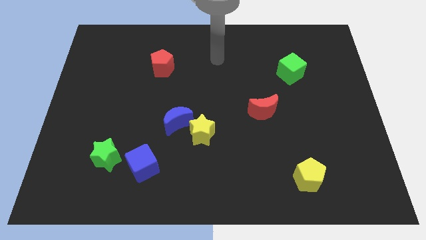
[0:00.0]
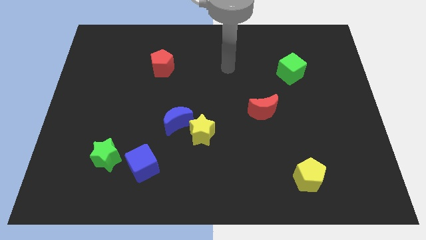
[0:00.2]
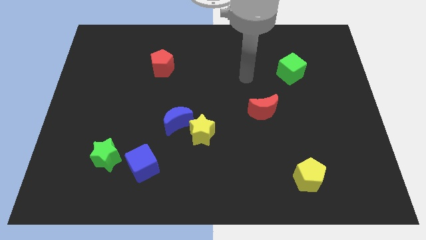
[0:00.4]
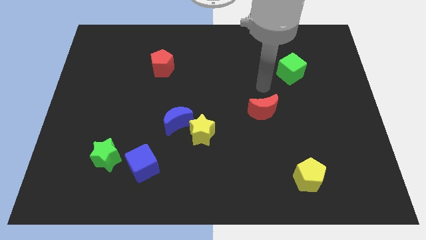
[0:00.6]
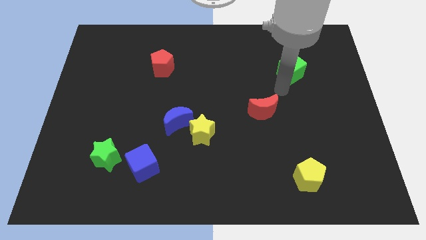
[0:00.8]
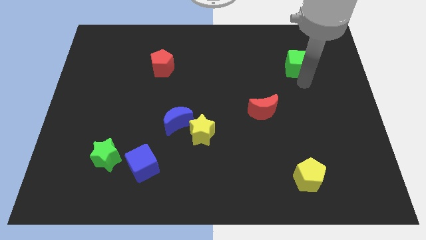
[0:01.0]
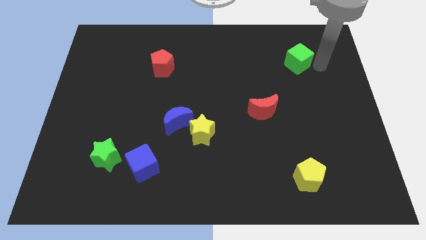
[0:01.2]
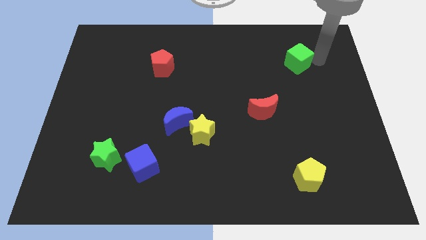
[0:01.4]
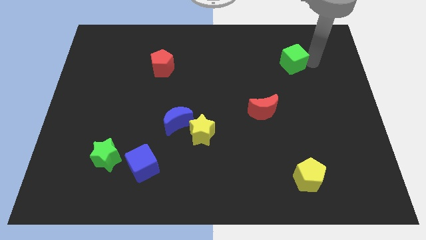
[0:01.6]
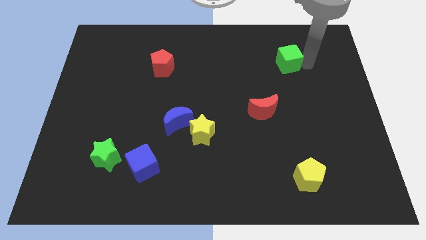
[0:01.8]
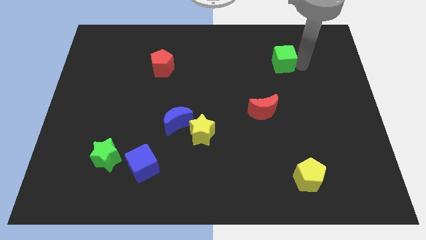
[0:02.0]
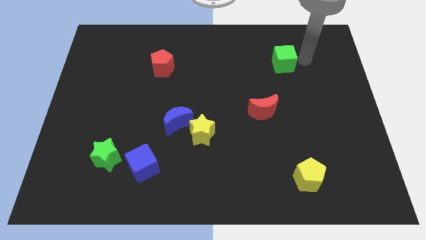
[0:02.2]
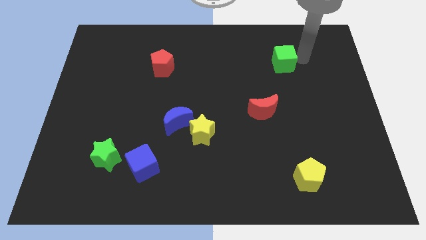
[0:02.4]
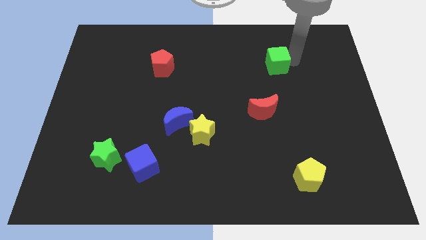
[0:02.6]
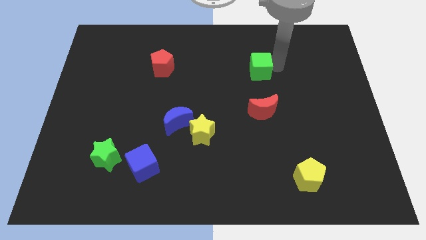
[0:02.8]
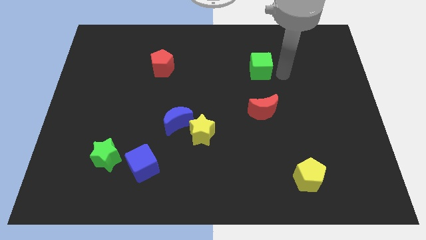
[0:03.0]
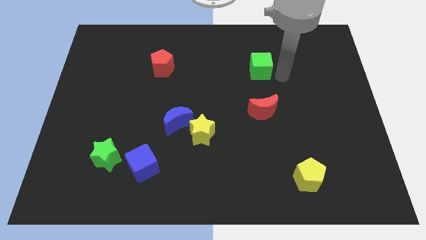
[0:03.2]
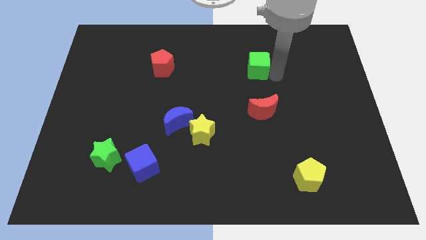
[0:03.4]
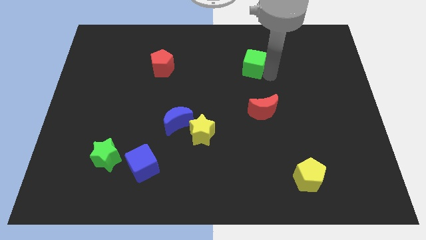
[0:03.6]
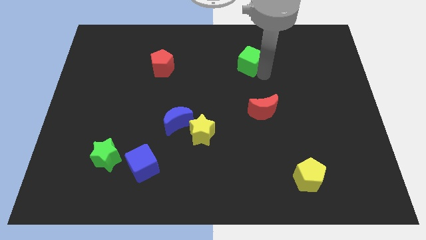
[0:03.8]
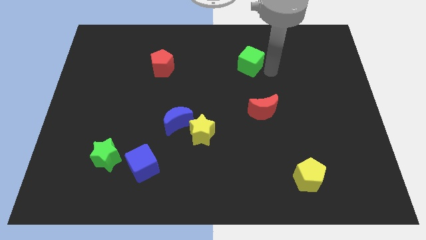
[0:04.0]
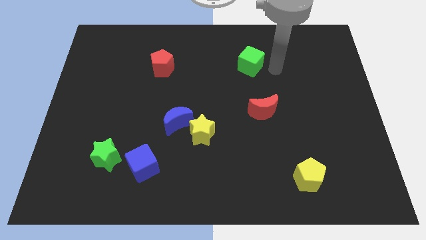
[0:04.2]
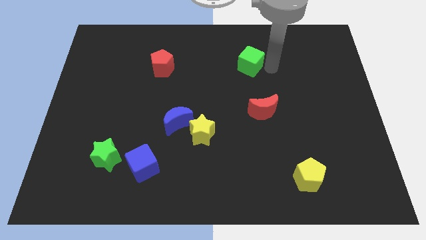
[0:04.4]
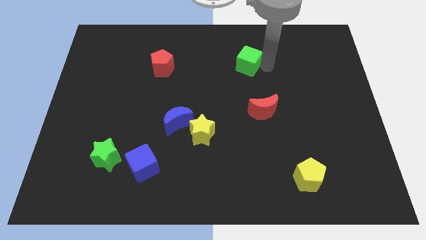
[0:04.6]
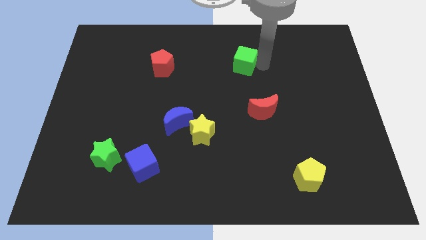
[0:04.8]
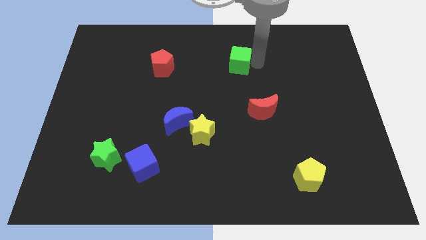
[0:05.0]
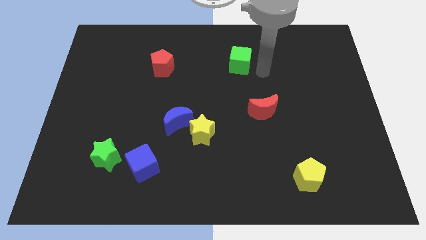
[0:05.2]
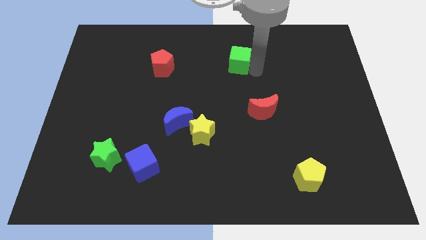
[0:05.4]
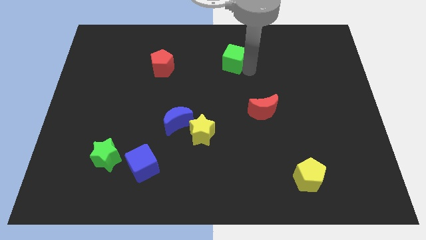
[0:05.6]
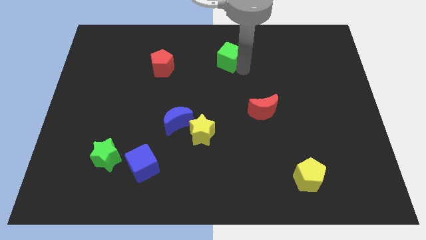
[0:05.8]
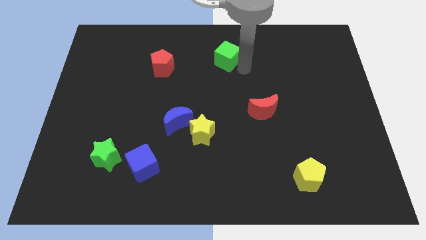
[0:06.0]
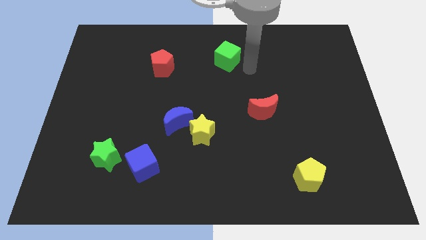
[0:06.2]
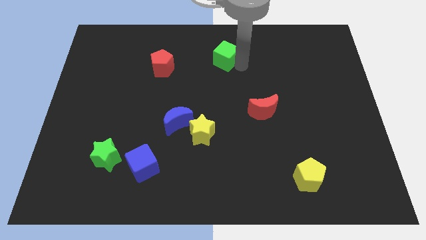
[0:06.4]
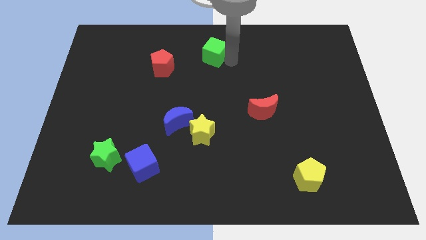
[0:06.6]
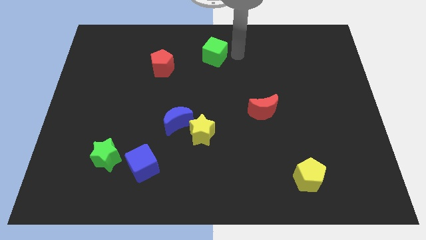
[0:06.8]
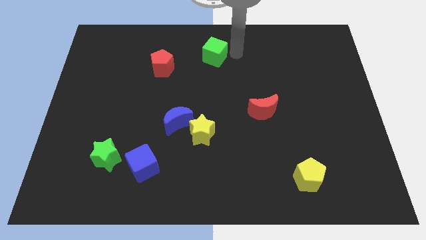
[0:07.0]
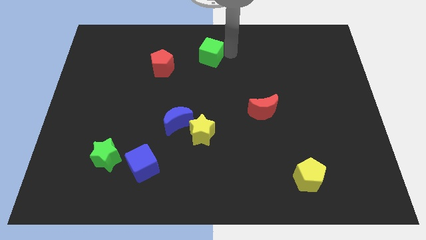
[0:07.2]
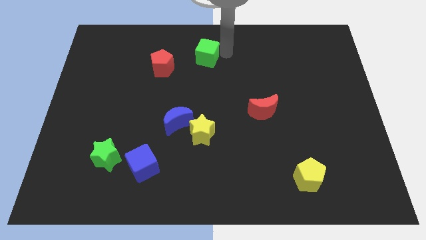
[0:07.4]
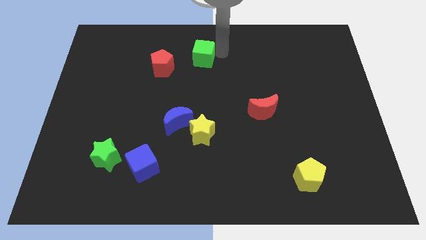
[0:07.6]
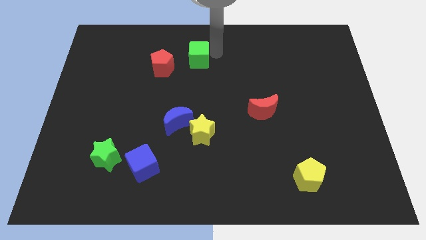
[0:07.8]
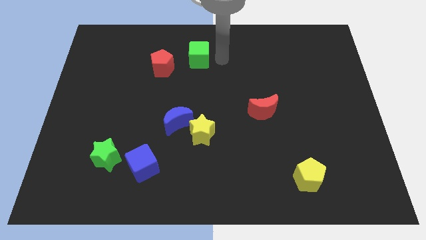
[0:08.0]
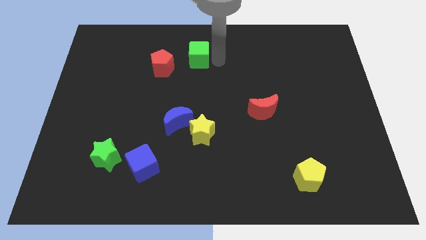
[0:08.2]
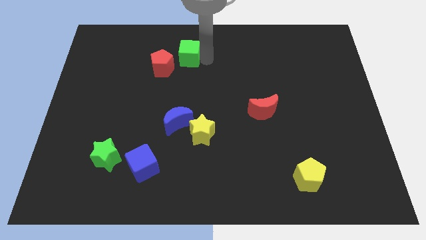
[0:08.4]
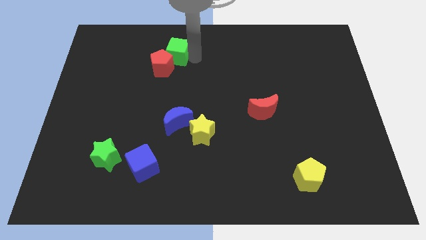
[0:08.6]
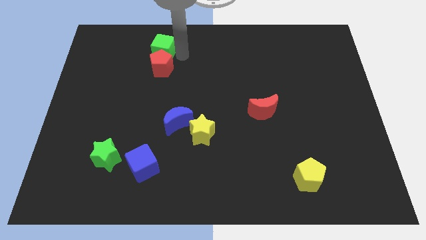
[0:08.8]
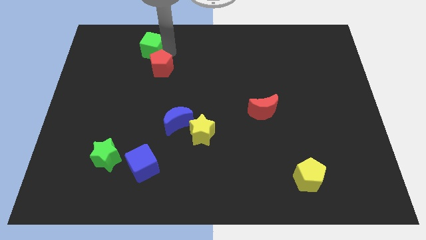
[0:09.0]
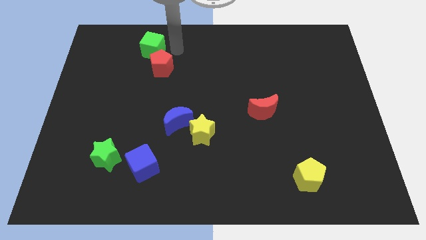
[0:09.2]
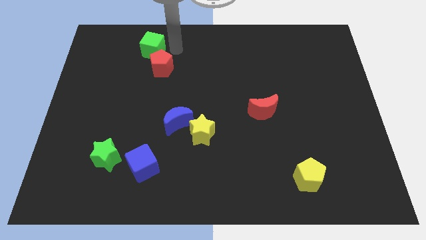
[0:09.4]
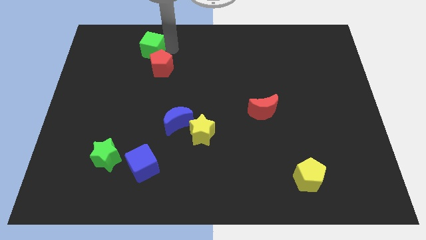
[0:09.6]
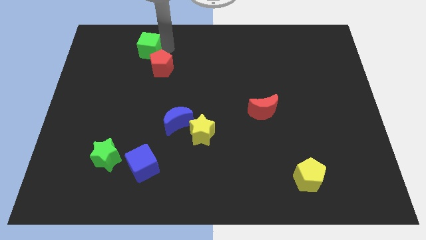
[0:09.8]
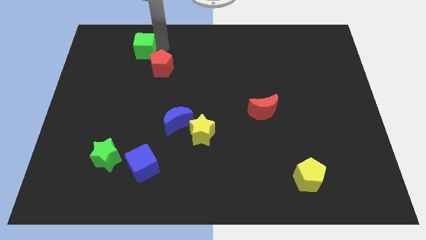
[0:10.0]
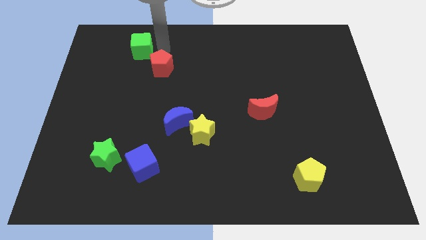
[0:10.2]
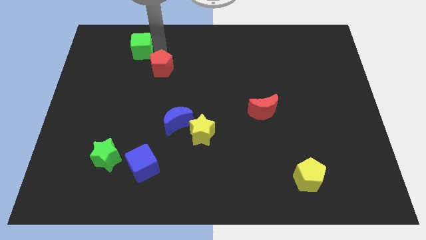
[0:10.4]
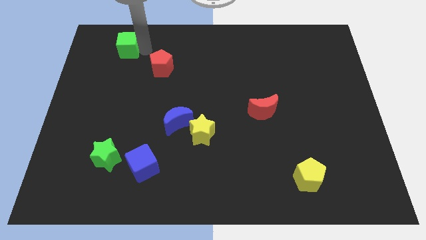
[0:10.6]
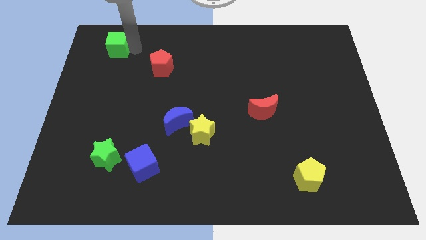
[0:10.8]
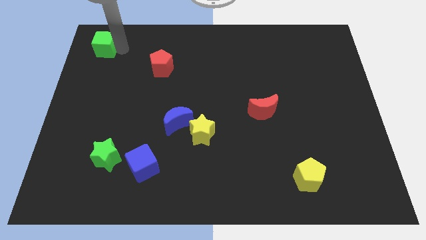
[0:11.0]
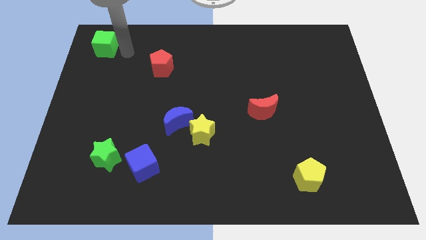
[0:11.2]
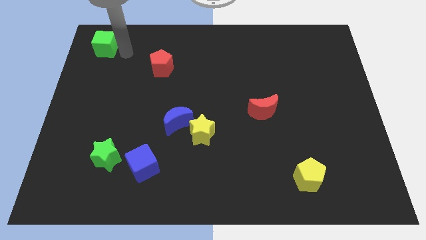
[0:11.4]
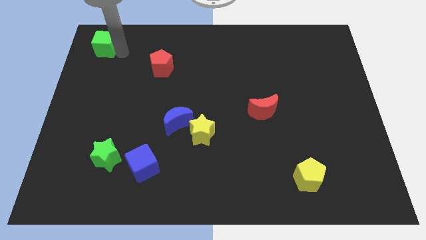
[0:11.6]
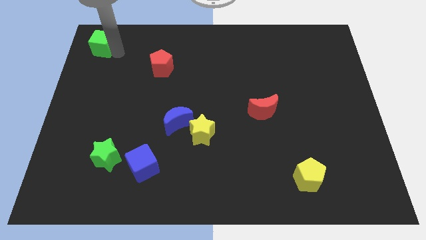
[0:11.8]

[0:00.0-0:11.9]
push the green cube to the top left corner

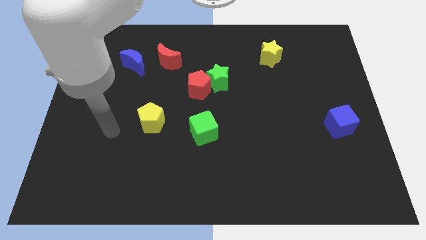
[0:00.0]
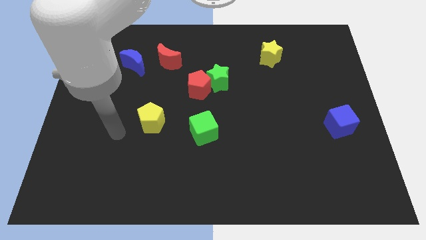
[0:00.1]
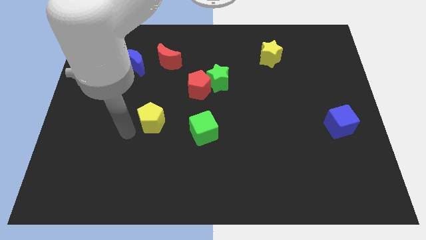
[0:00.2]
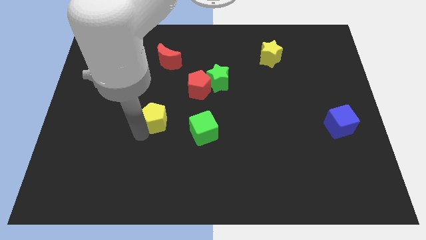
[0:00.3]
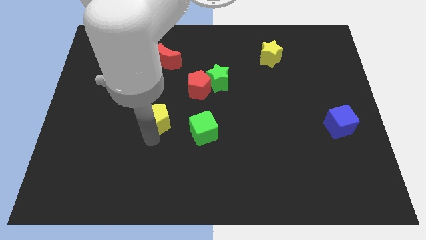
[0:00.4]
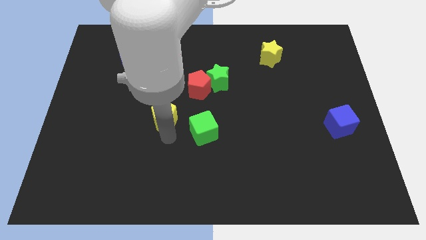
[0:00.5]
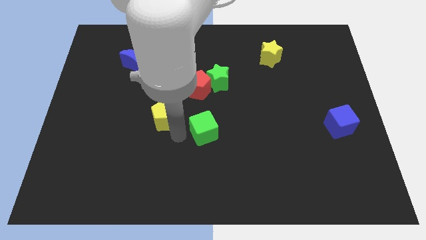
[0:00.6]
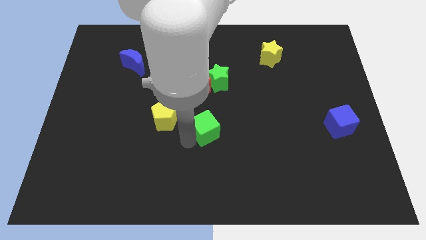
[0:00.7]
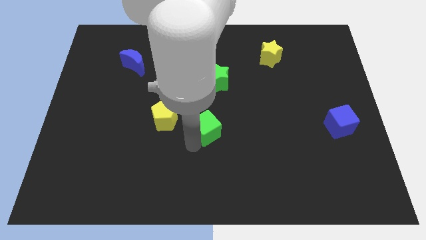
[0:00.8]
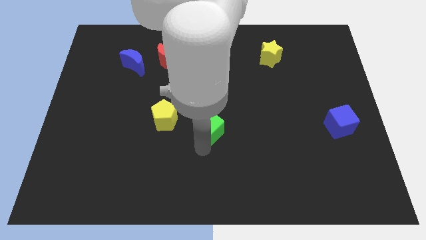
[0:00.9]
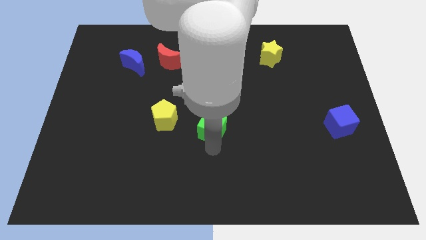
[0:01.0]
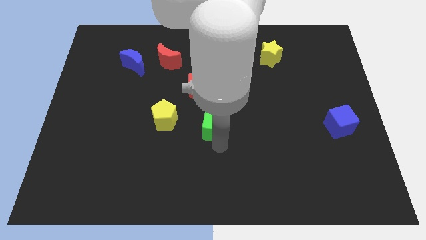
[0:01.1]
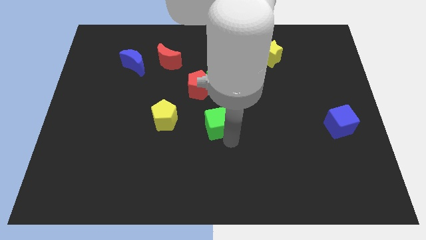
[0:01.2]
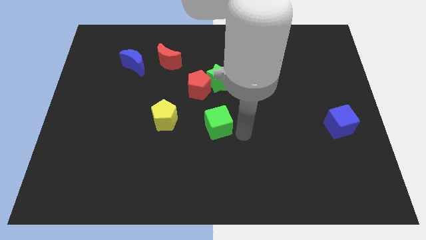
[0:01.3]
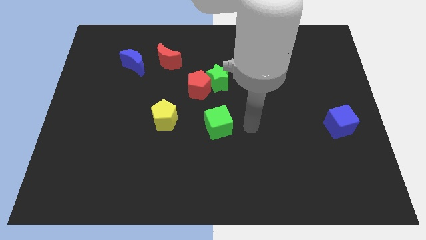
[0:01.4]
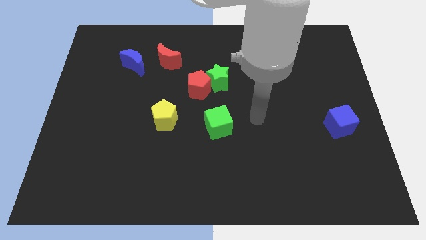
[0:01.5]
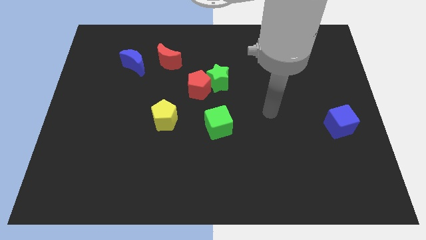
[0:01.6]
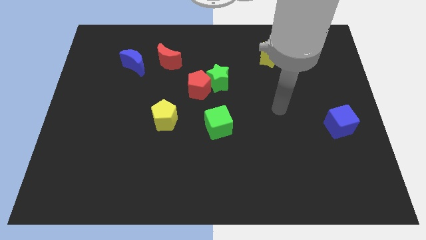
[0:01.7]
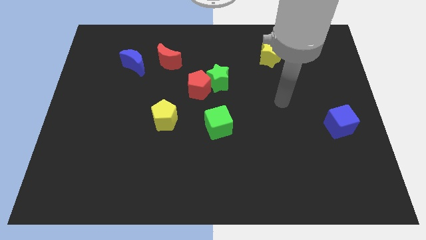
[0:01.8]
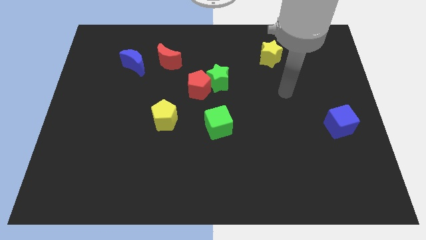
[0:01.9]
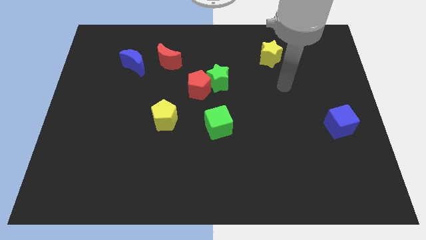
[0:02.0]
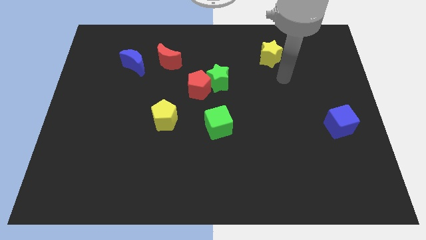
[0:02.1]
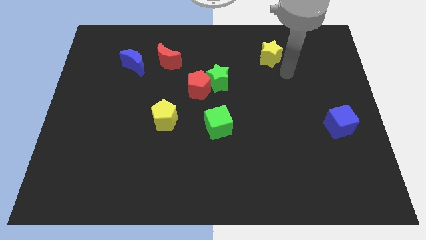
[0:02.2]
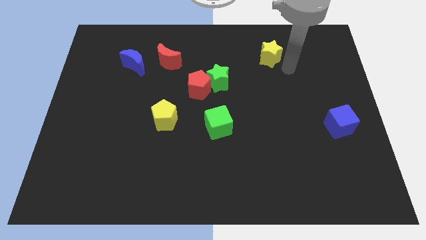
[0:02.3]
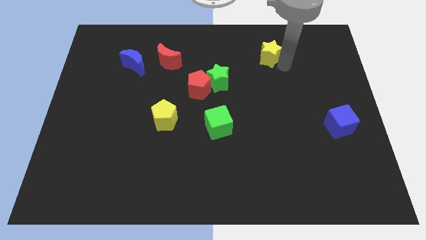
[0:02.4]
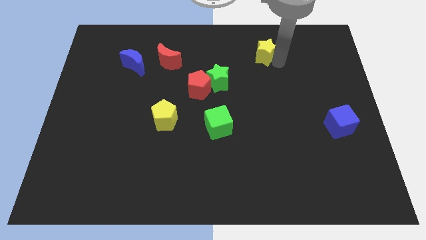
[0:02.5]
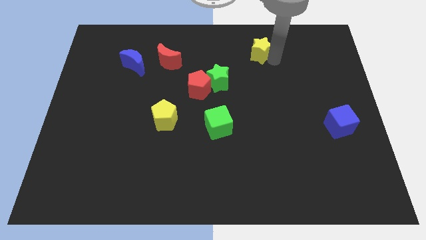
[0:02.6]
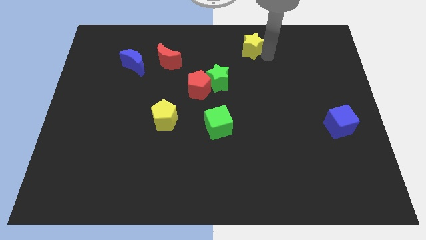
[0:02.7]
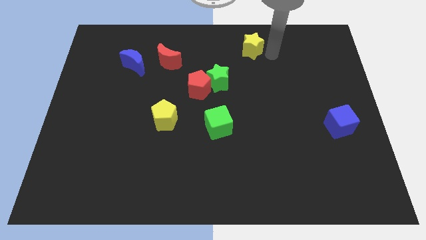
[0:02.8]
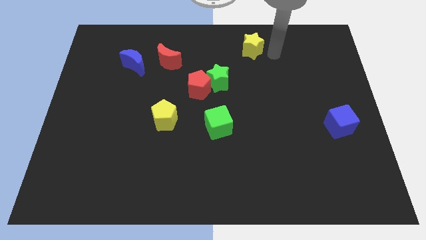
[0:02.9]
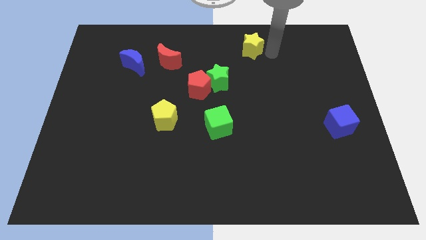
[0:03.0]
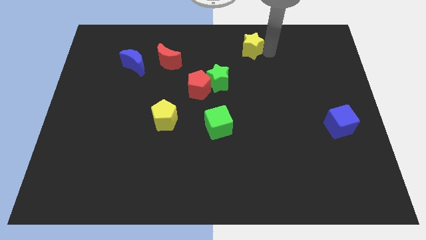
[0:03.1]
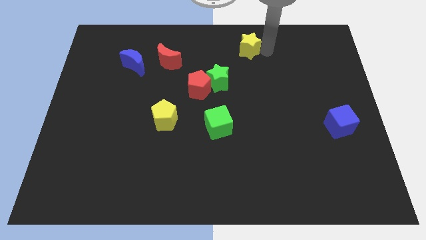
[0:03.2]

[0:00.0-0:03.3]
push the yellow star to the top
